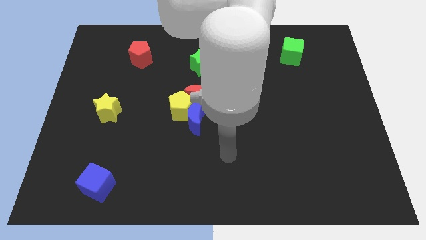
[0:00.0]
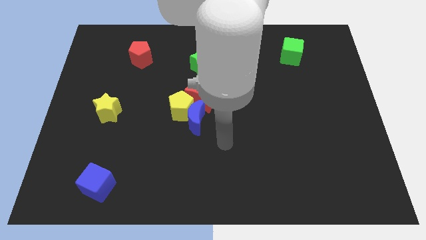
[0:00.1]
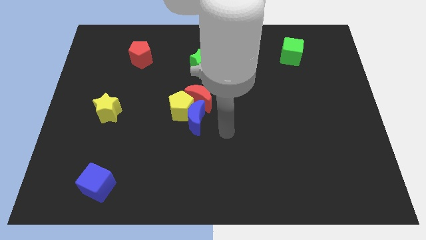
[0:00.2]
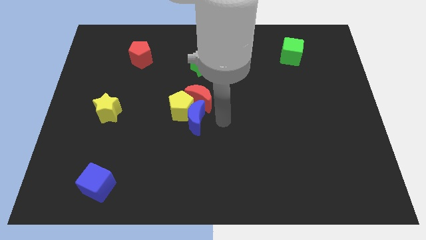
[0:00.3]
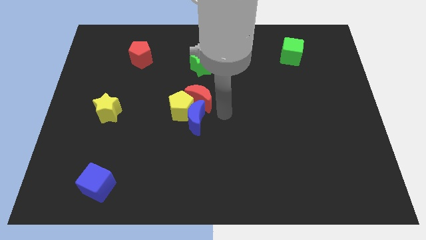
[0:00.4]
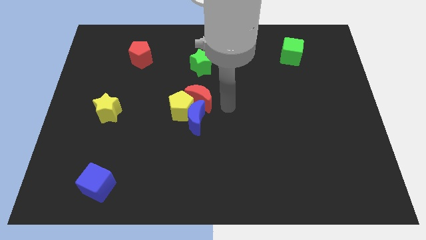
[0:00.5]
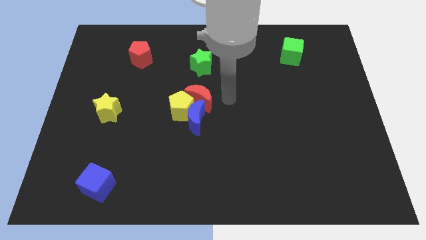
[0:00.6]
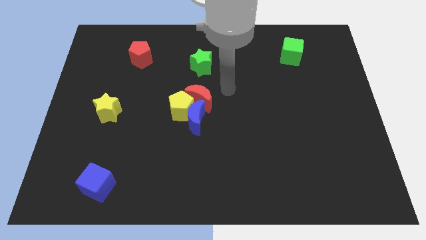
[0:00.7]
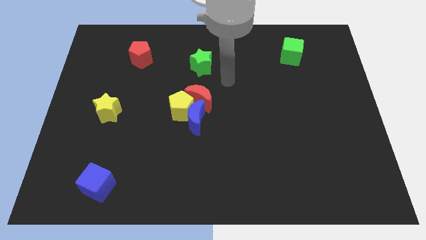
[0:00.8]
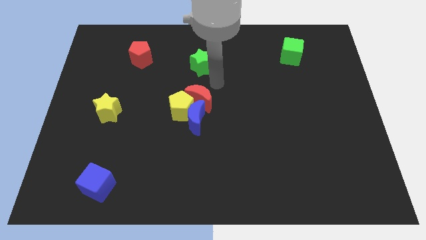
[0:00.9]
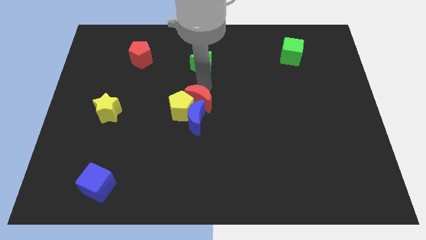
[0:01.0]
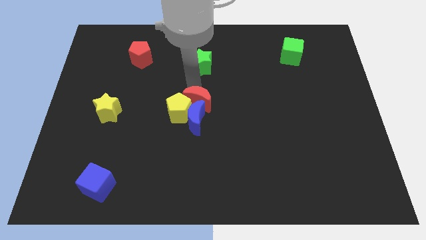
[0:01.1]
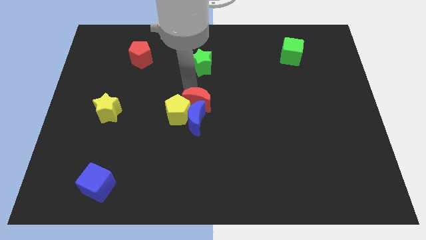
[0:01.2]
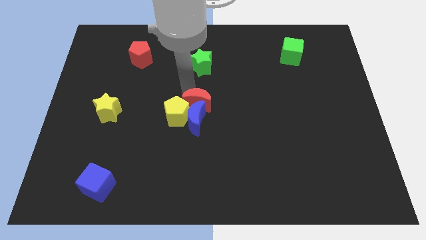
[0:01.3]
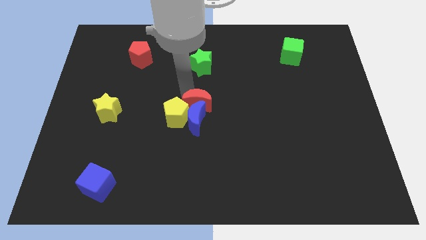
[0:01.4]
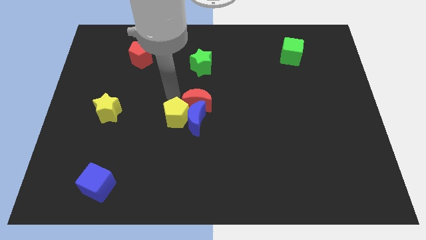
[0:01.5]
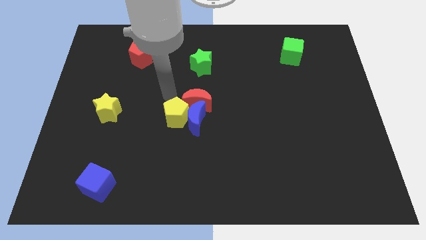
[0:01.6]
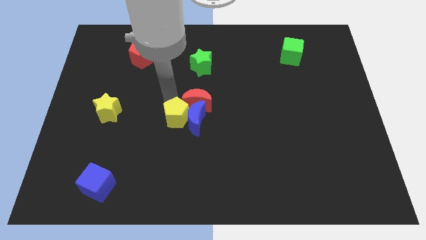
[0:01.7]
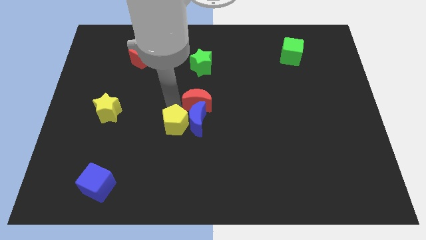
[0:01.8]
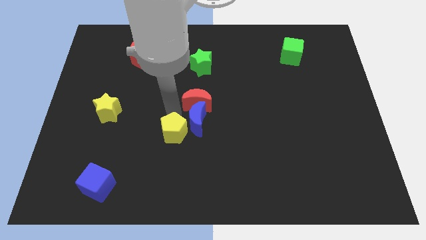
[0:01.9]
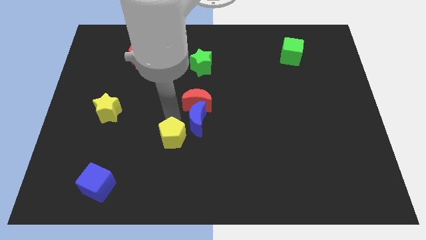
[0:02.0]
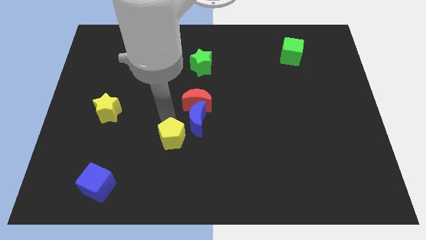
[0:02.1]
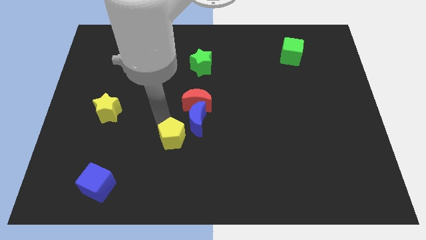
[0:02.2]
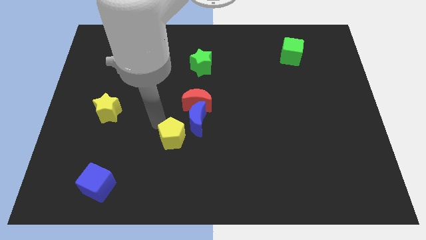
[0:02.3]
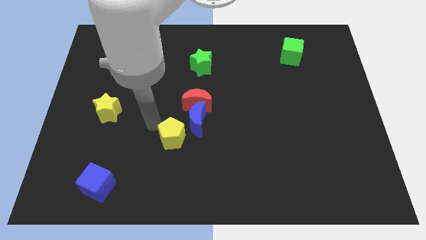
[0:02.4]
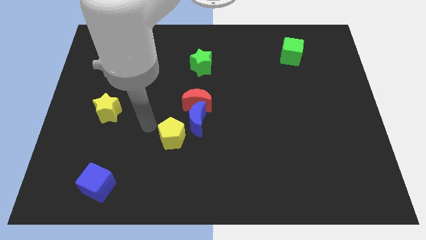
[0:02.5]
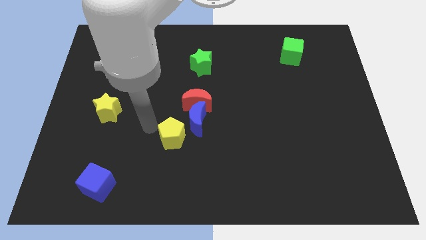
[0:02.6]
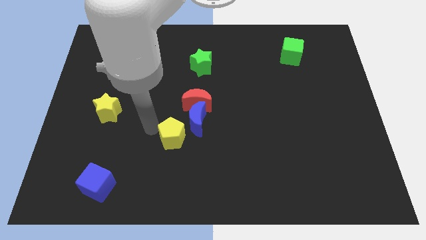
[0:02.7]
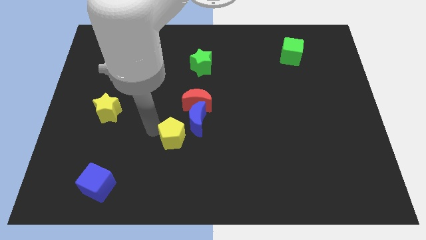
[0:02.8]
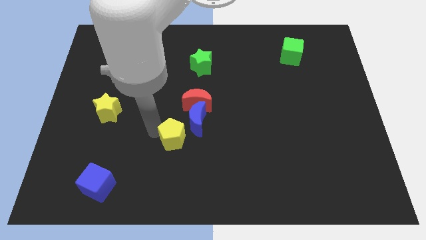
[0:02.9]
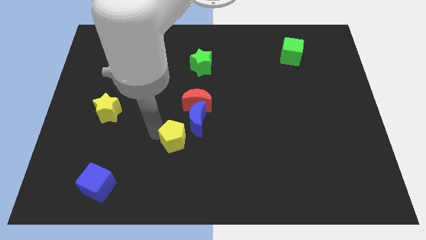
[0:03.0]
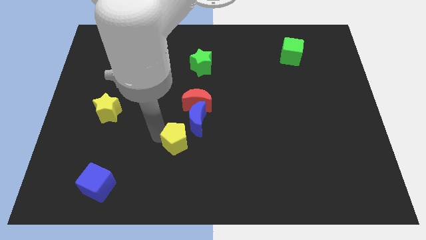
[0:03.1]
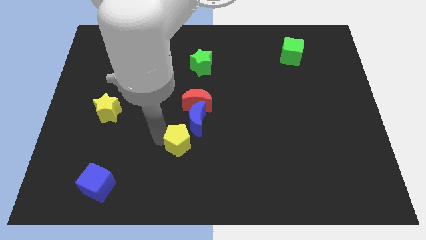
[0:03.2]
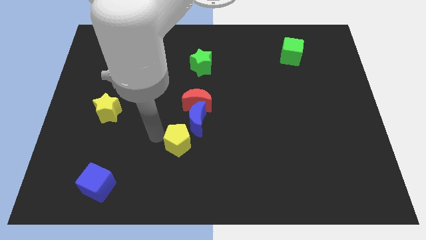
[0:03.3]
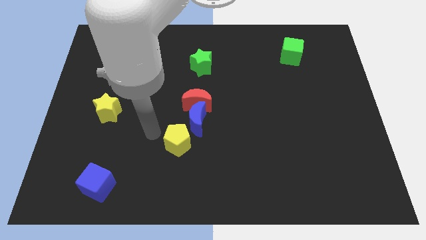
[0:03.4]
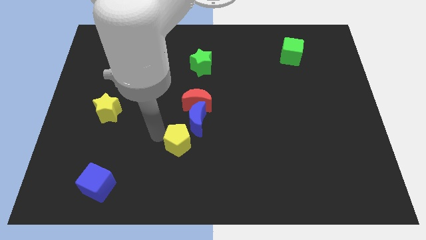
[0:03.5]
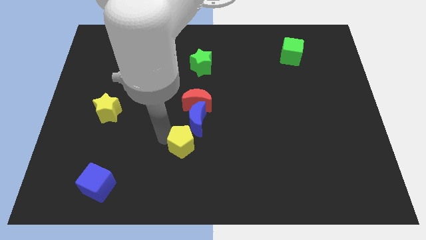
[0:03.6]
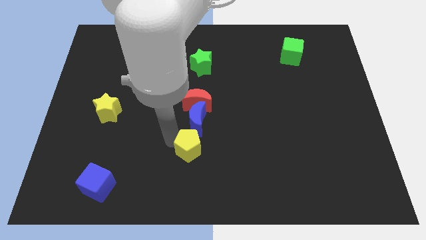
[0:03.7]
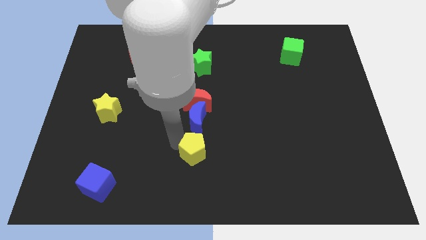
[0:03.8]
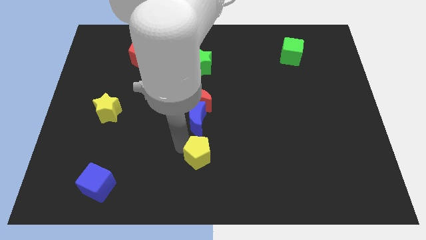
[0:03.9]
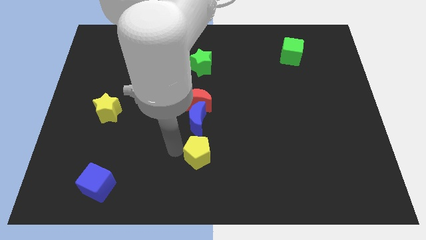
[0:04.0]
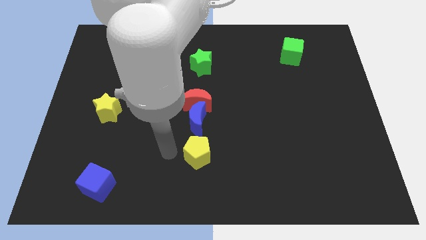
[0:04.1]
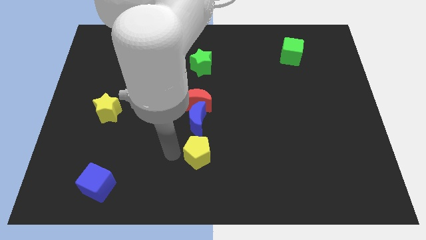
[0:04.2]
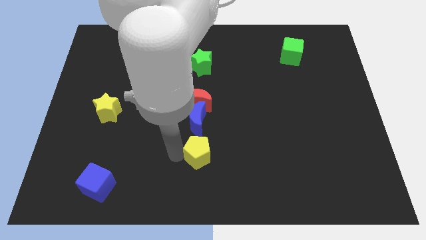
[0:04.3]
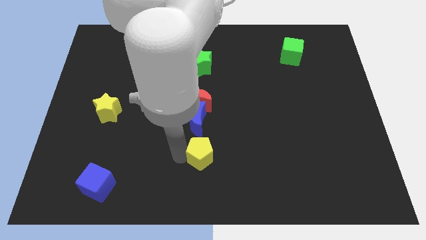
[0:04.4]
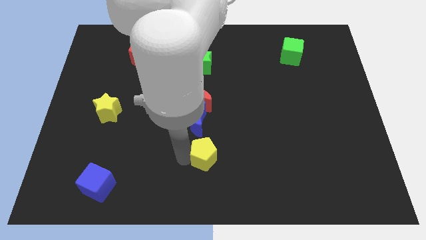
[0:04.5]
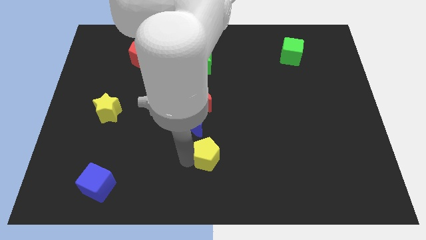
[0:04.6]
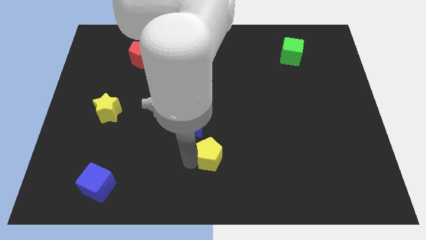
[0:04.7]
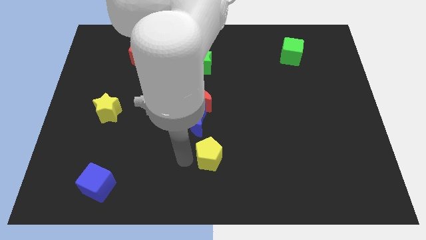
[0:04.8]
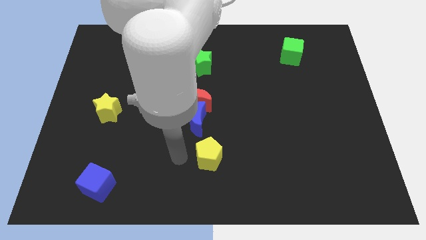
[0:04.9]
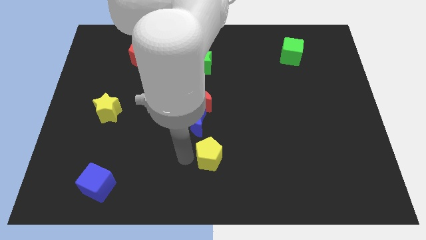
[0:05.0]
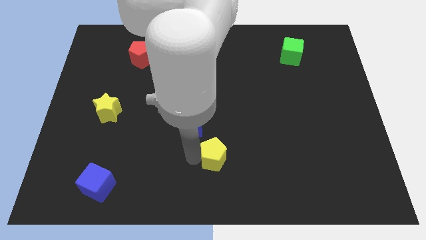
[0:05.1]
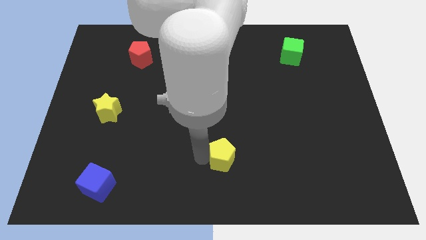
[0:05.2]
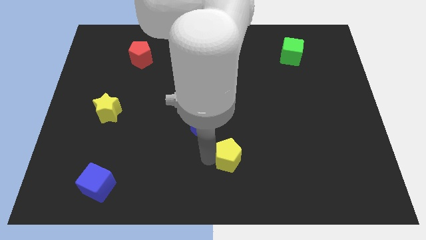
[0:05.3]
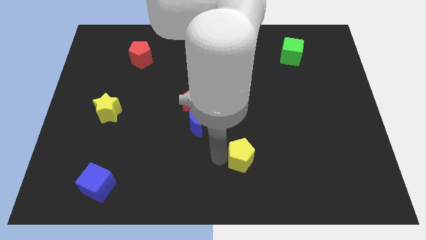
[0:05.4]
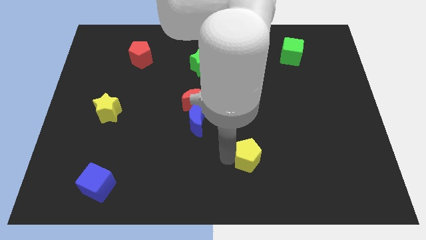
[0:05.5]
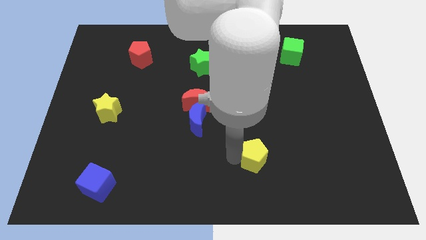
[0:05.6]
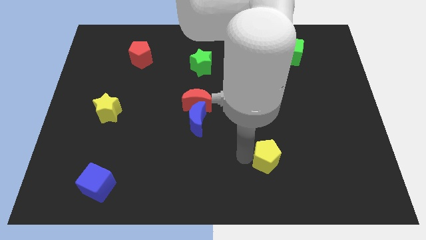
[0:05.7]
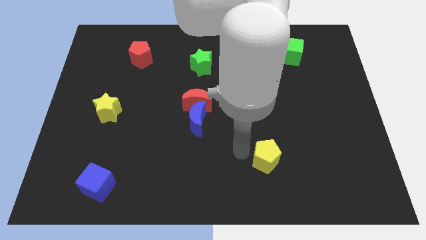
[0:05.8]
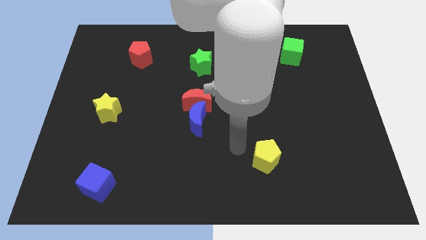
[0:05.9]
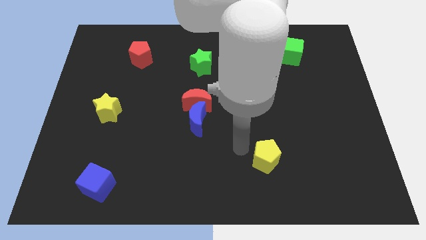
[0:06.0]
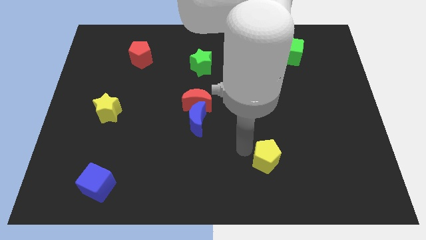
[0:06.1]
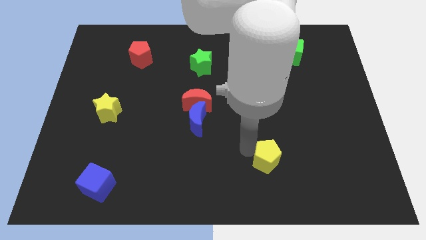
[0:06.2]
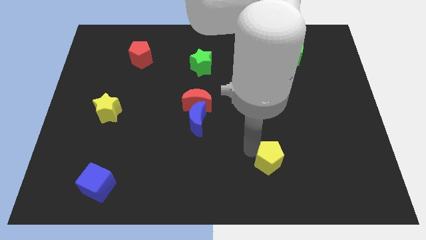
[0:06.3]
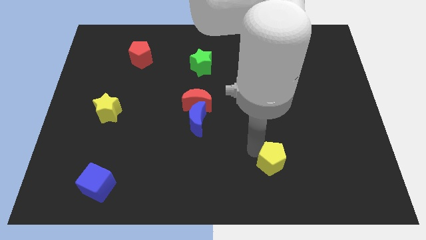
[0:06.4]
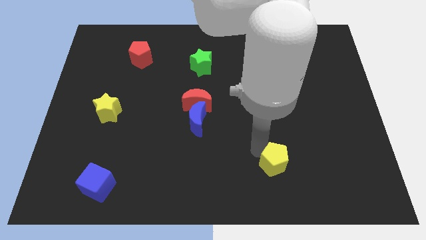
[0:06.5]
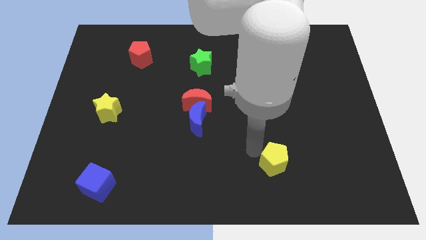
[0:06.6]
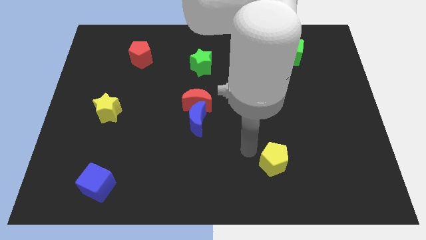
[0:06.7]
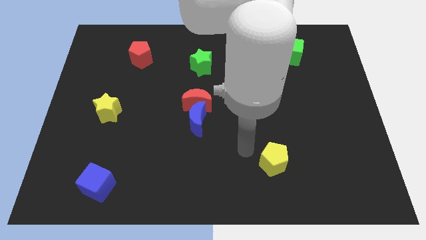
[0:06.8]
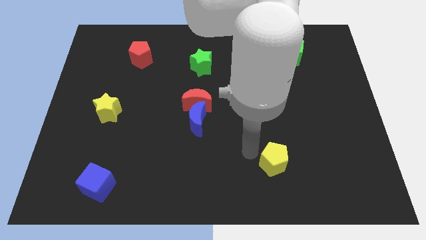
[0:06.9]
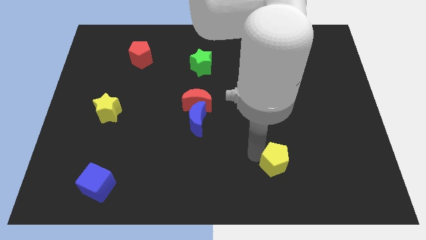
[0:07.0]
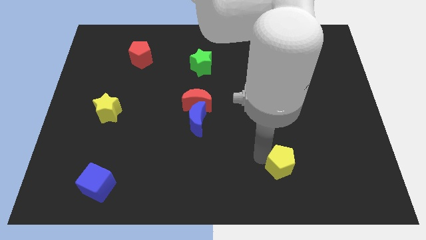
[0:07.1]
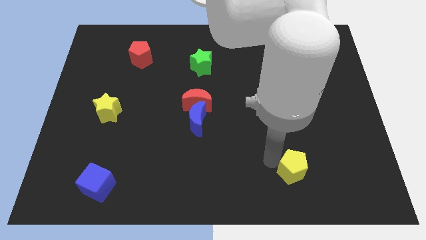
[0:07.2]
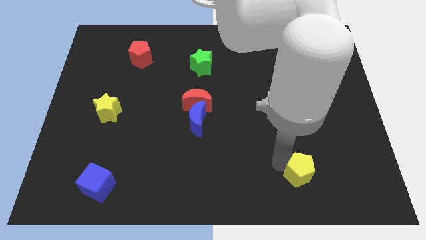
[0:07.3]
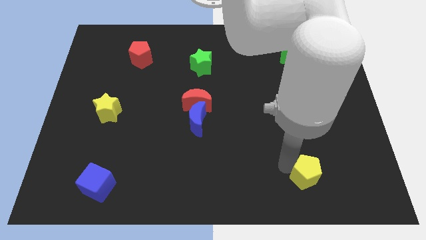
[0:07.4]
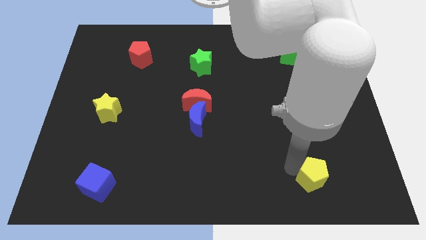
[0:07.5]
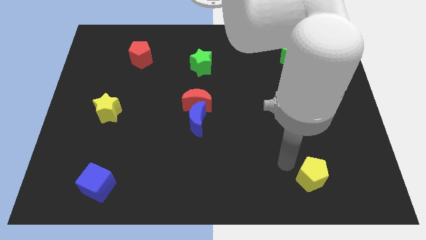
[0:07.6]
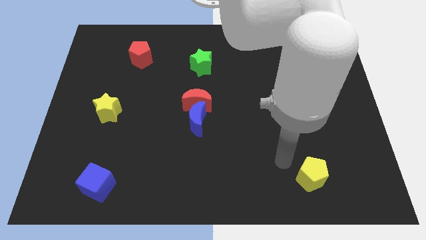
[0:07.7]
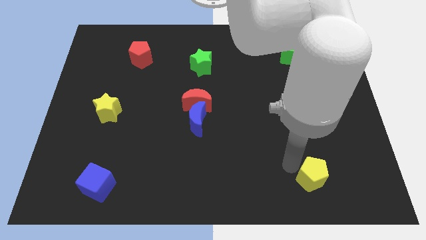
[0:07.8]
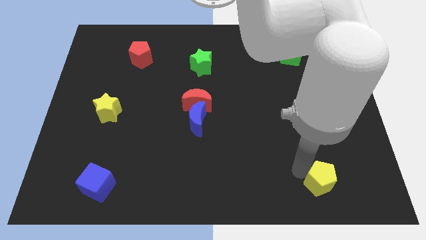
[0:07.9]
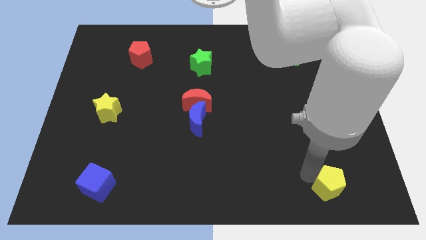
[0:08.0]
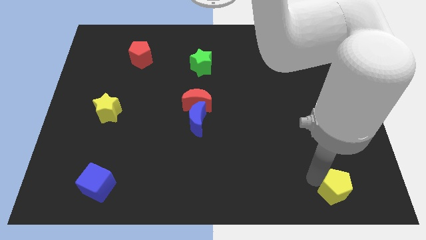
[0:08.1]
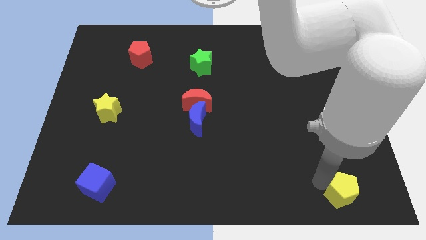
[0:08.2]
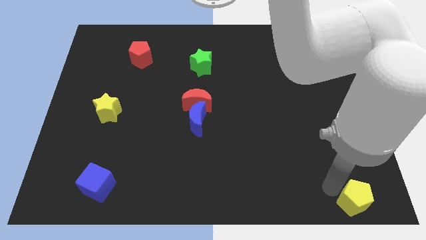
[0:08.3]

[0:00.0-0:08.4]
put the yellow pentagon to the lower right corner

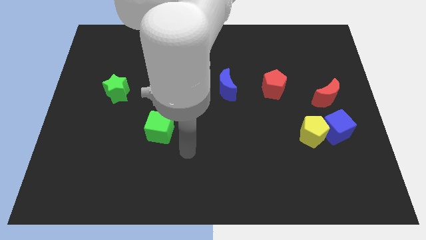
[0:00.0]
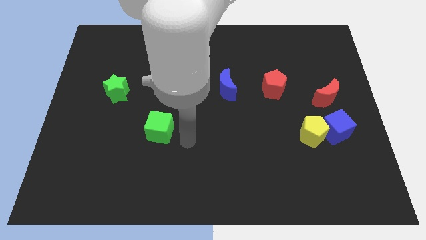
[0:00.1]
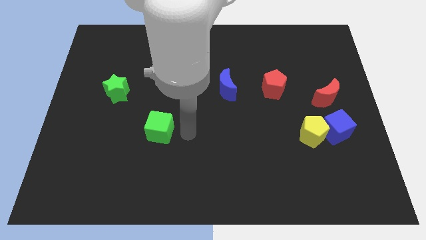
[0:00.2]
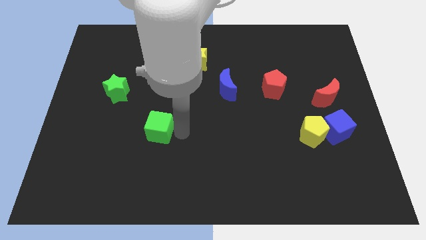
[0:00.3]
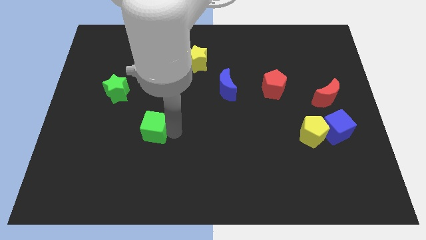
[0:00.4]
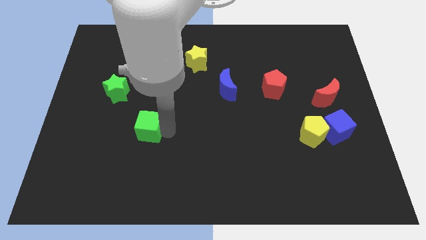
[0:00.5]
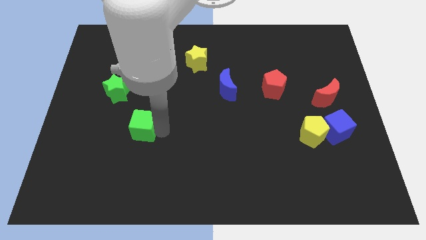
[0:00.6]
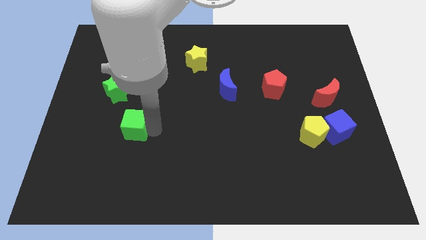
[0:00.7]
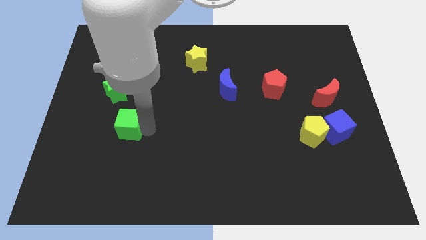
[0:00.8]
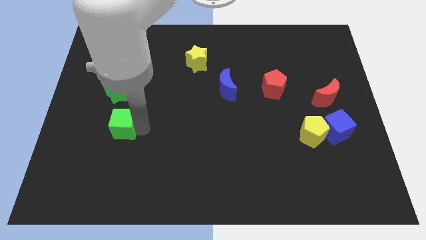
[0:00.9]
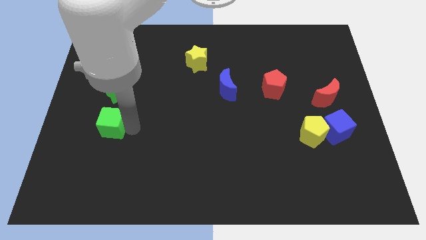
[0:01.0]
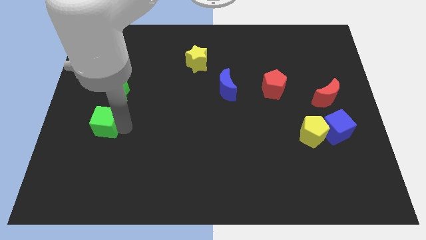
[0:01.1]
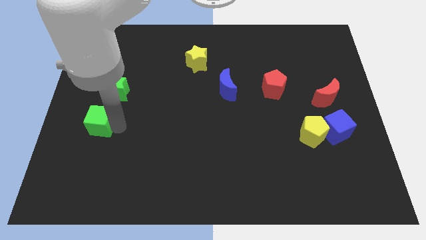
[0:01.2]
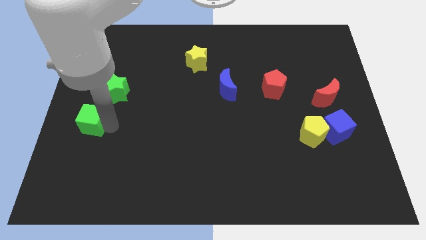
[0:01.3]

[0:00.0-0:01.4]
move the green cube to the left side of the board
